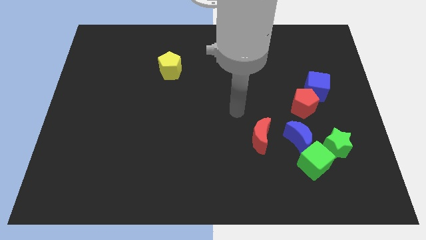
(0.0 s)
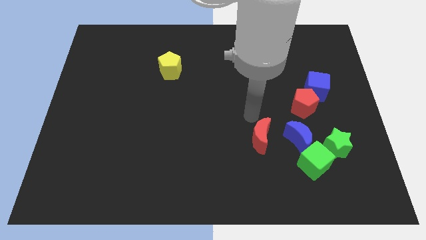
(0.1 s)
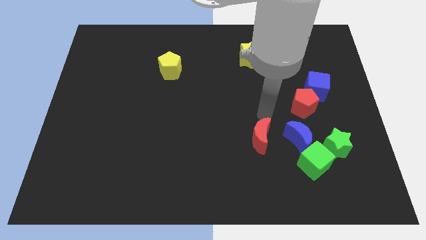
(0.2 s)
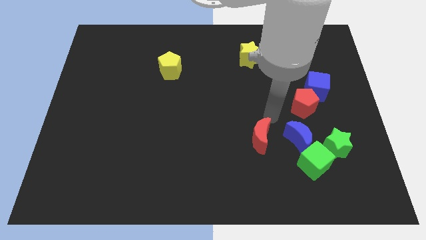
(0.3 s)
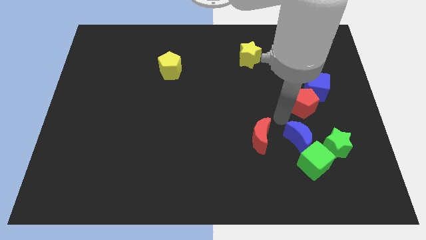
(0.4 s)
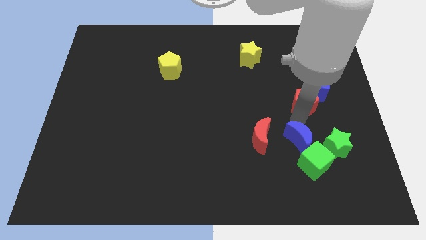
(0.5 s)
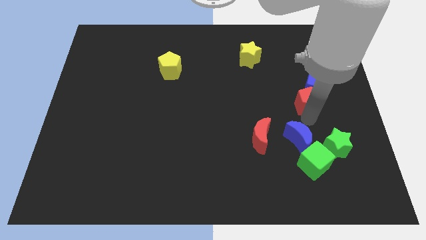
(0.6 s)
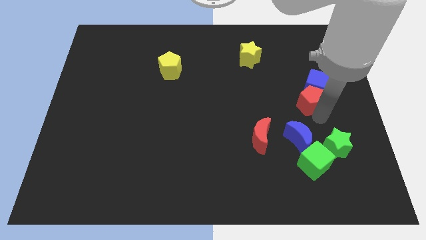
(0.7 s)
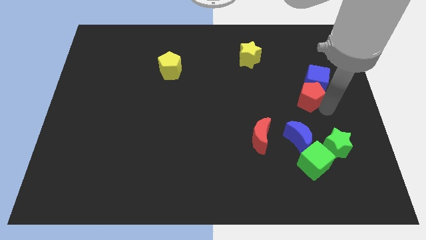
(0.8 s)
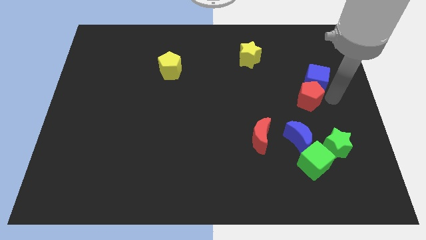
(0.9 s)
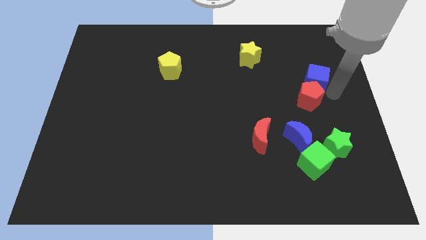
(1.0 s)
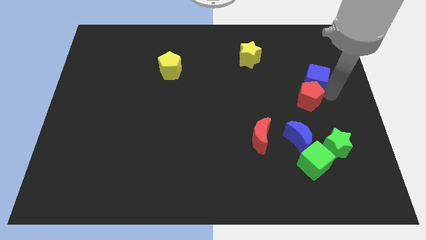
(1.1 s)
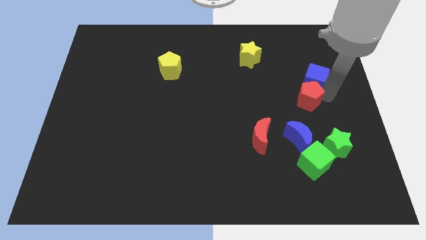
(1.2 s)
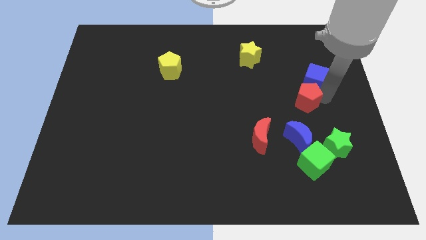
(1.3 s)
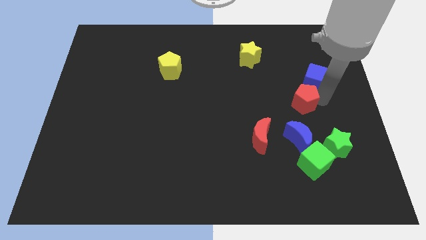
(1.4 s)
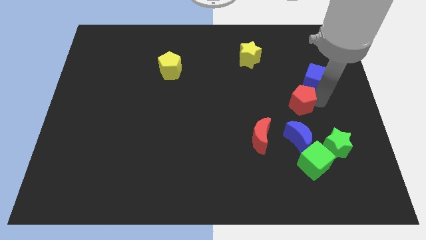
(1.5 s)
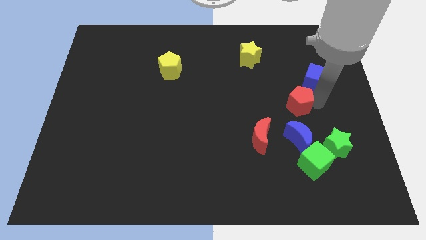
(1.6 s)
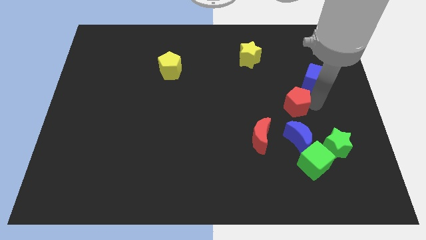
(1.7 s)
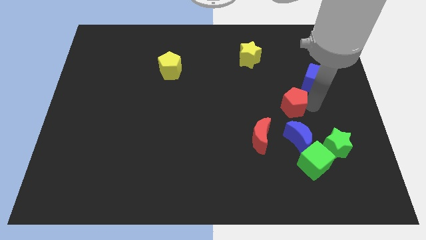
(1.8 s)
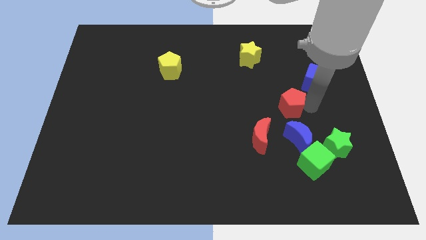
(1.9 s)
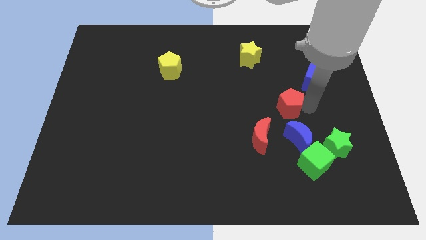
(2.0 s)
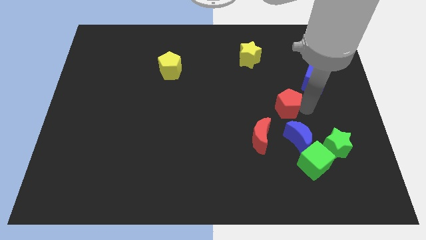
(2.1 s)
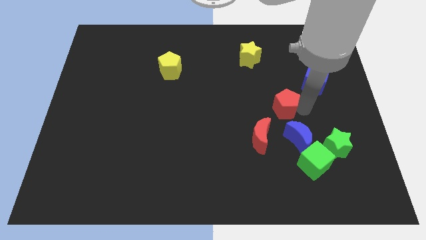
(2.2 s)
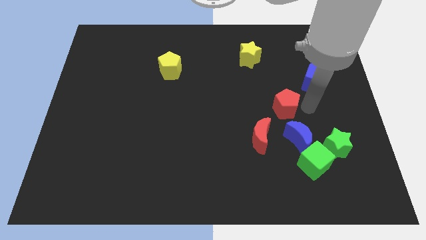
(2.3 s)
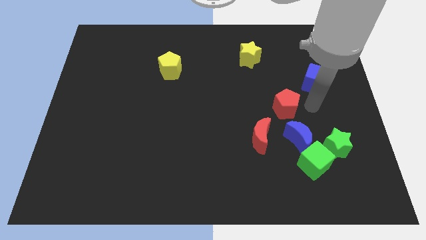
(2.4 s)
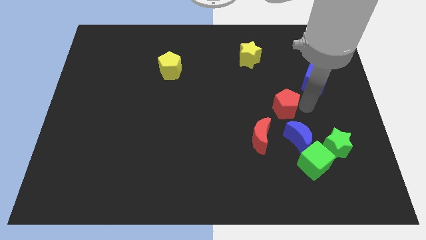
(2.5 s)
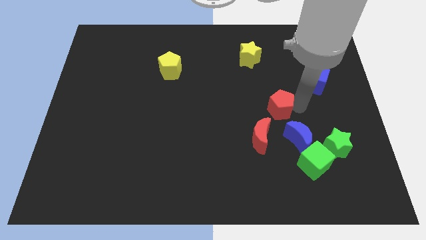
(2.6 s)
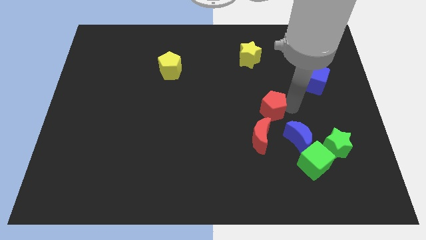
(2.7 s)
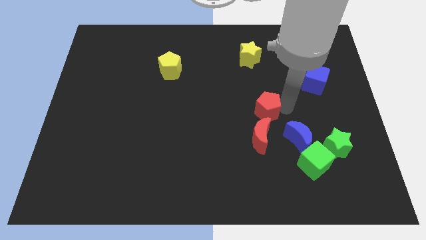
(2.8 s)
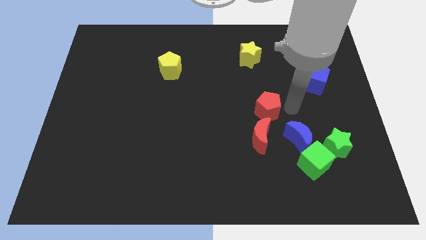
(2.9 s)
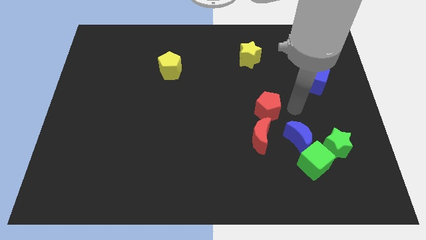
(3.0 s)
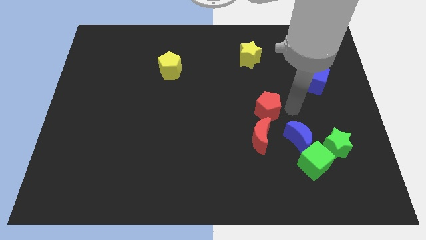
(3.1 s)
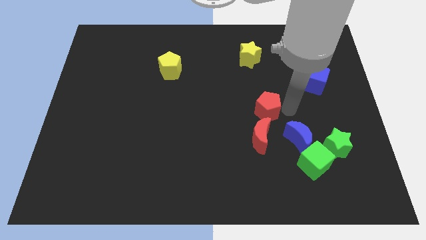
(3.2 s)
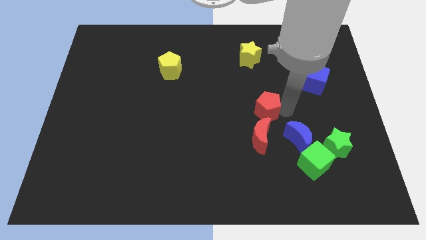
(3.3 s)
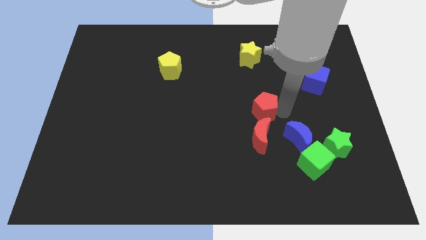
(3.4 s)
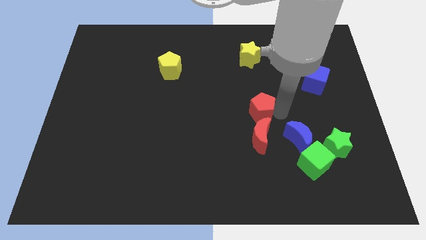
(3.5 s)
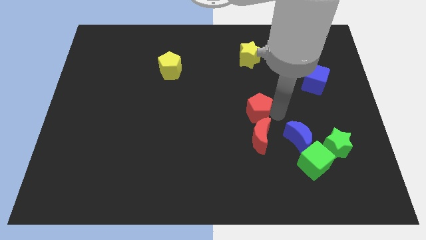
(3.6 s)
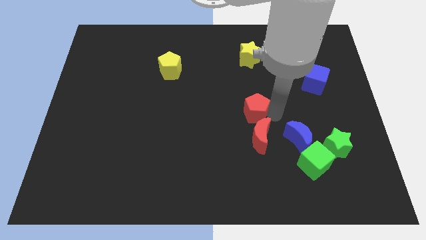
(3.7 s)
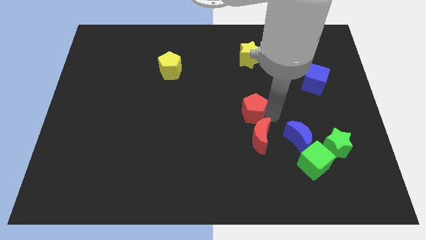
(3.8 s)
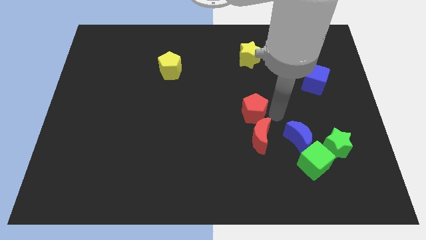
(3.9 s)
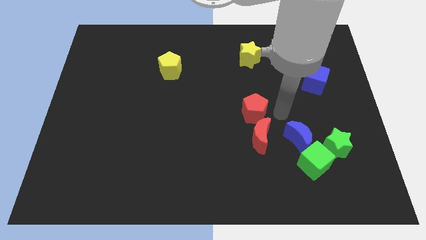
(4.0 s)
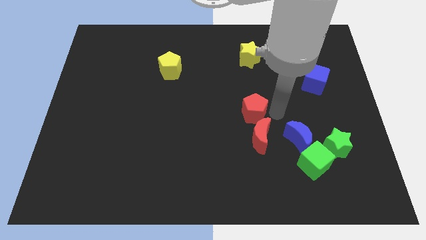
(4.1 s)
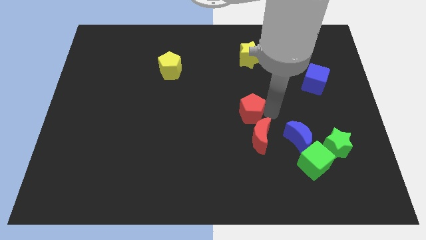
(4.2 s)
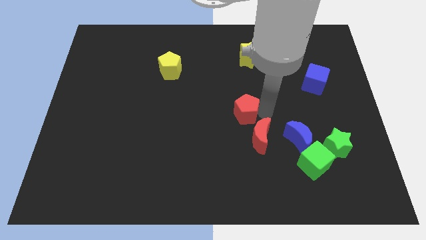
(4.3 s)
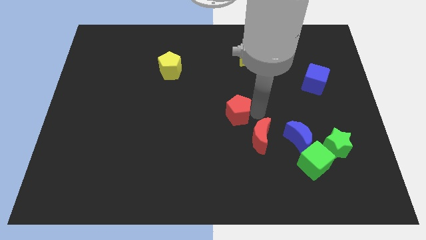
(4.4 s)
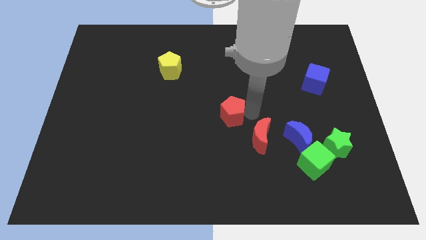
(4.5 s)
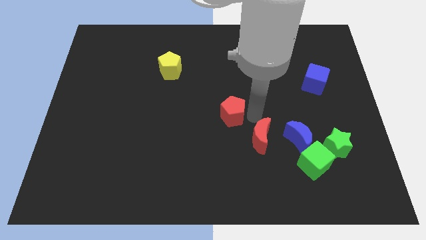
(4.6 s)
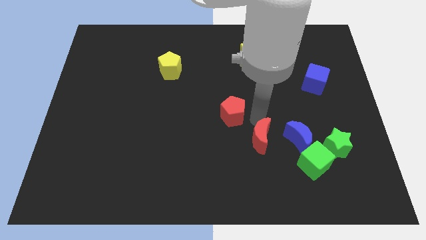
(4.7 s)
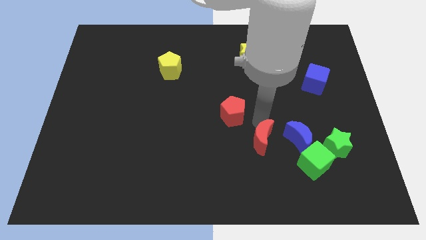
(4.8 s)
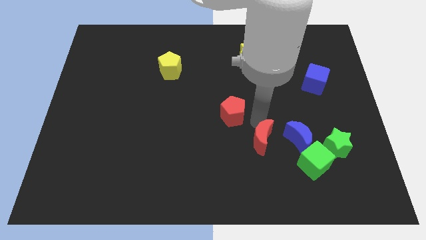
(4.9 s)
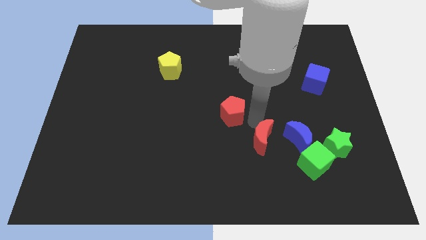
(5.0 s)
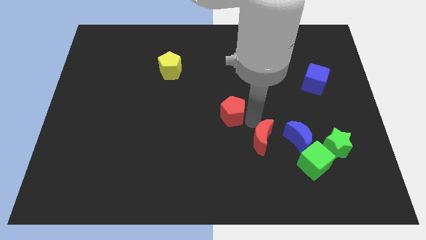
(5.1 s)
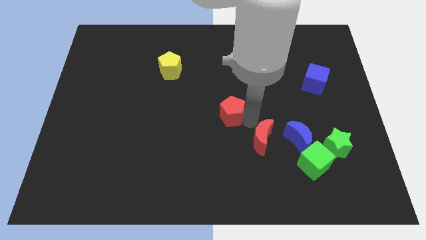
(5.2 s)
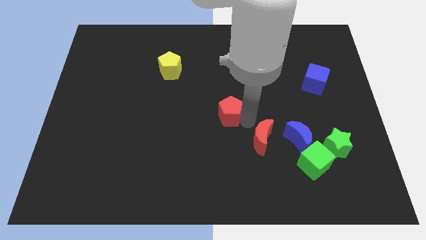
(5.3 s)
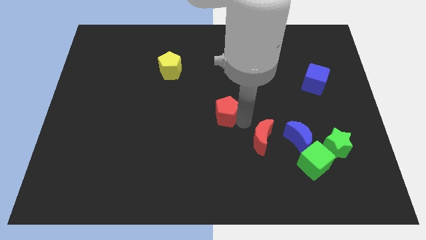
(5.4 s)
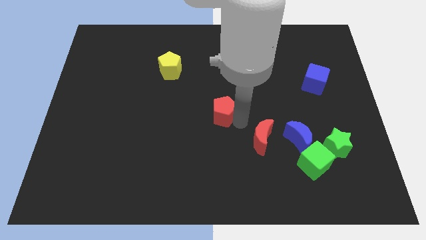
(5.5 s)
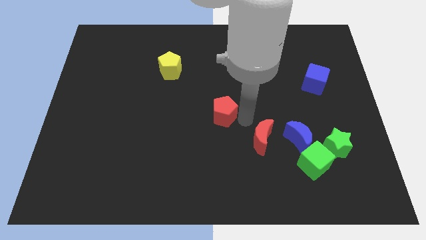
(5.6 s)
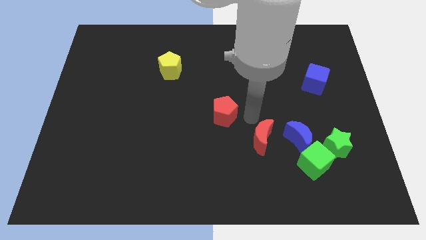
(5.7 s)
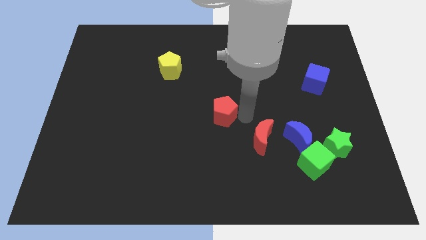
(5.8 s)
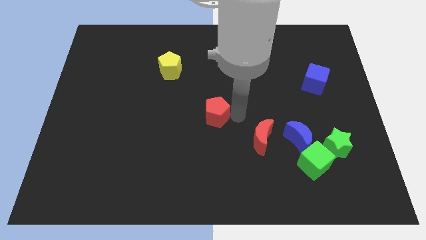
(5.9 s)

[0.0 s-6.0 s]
move the red pentagon to the left

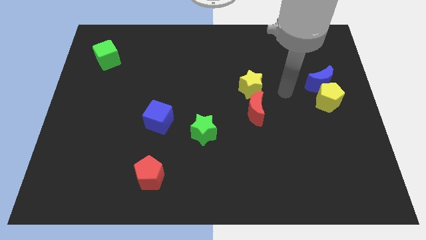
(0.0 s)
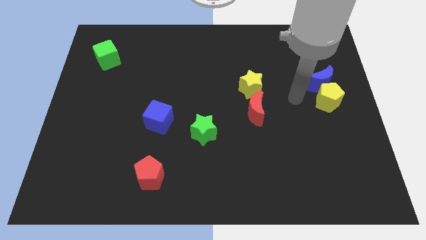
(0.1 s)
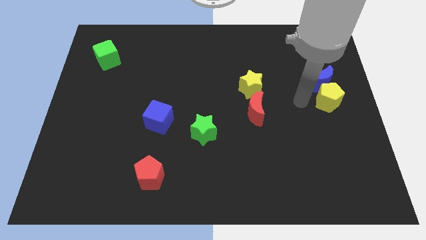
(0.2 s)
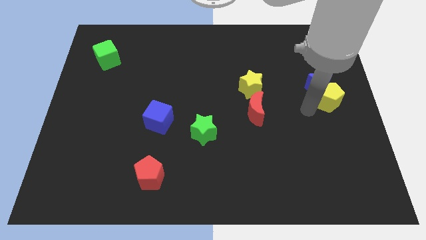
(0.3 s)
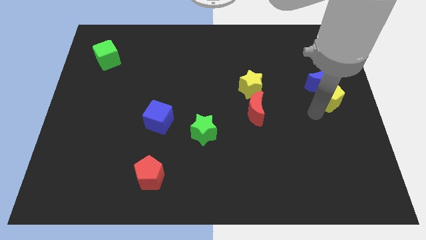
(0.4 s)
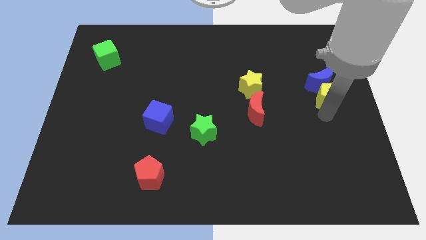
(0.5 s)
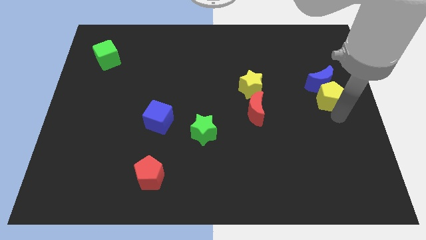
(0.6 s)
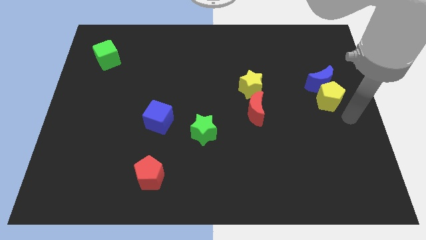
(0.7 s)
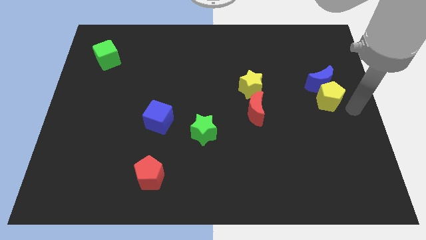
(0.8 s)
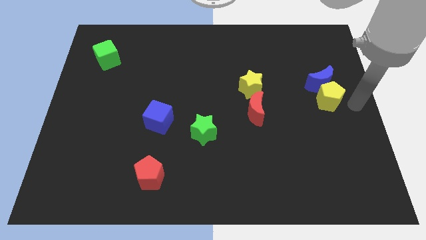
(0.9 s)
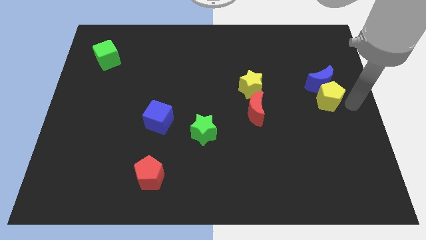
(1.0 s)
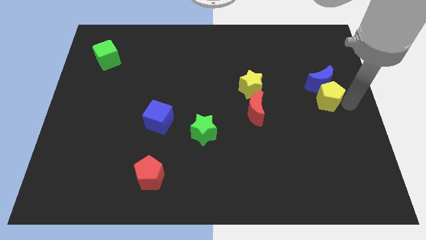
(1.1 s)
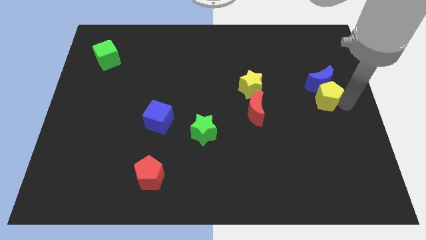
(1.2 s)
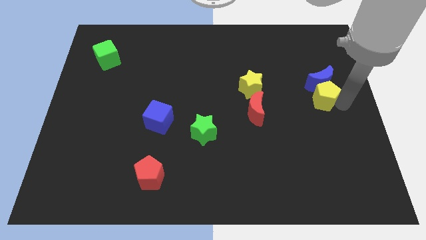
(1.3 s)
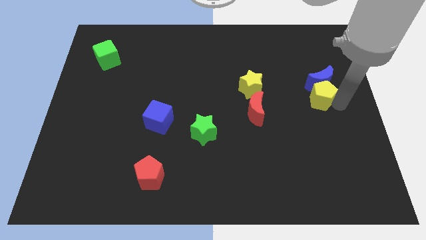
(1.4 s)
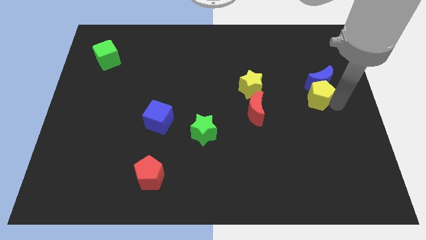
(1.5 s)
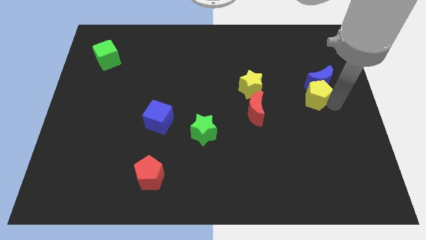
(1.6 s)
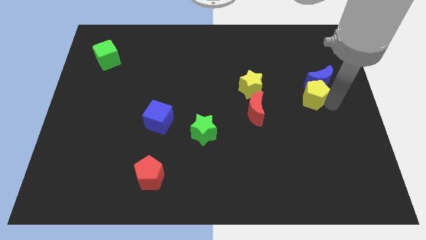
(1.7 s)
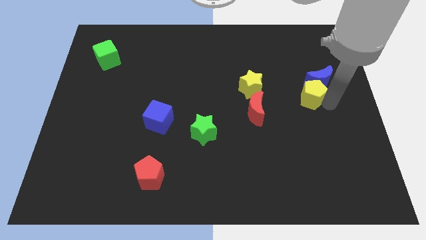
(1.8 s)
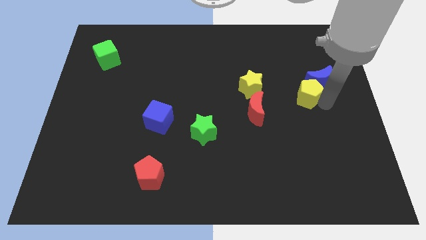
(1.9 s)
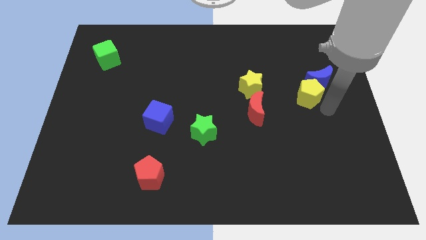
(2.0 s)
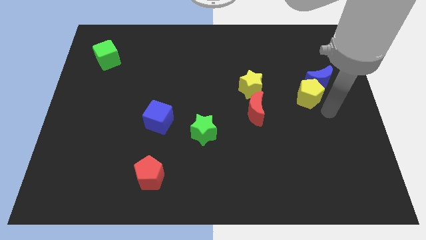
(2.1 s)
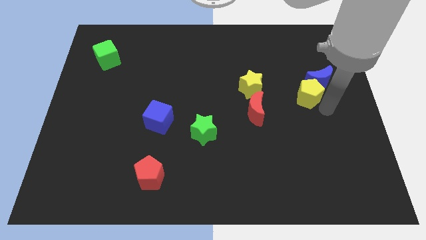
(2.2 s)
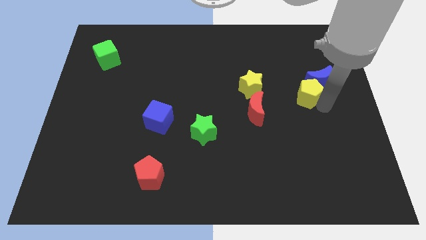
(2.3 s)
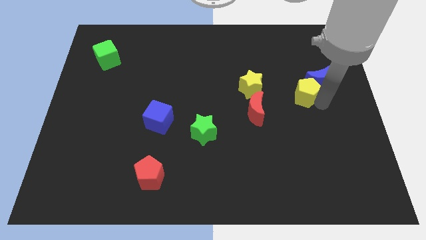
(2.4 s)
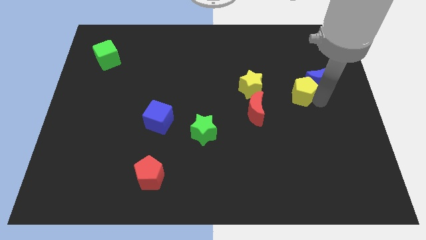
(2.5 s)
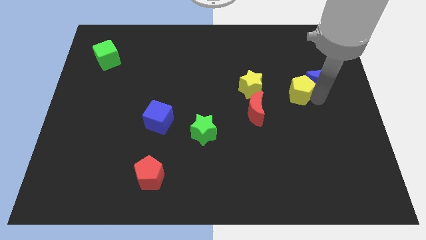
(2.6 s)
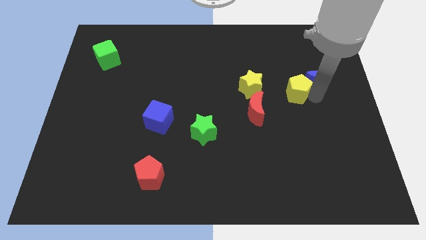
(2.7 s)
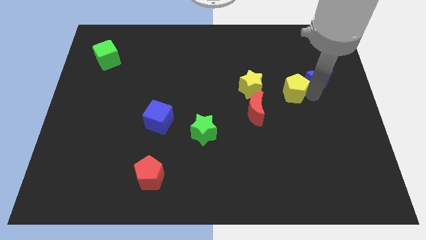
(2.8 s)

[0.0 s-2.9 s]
slide the yellow pentagon up and then left a bit
